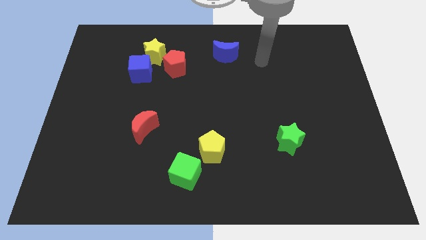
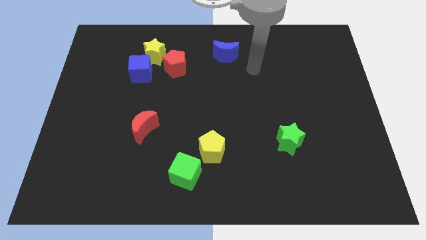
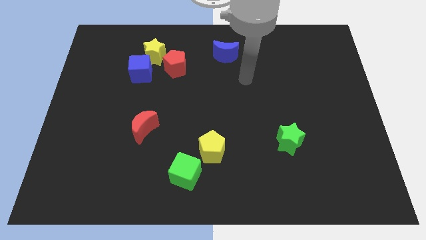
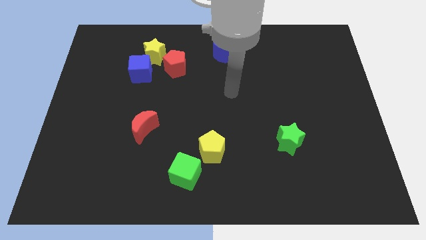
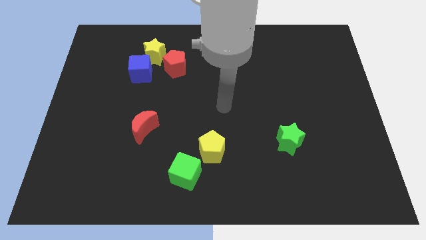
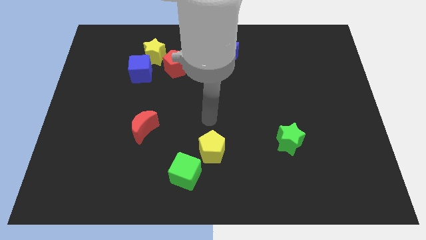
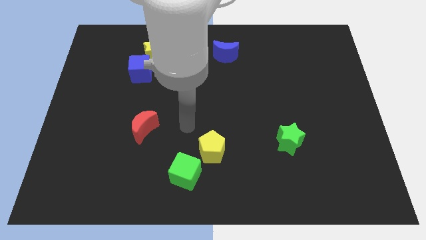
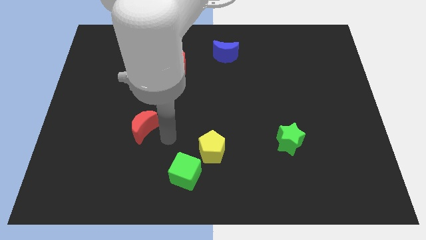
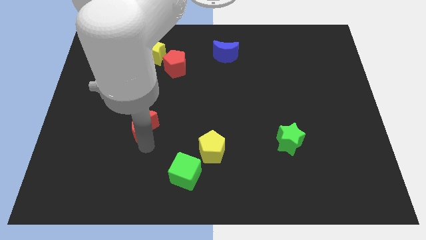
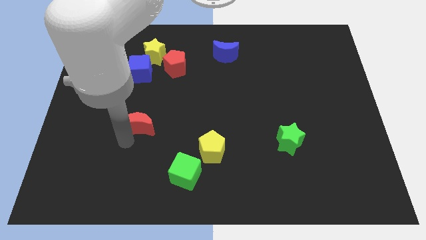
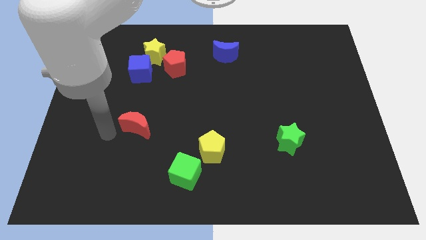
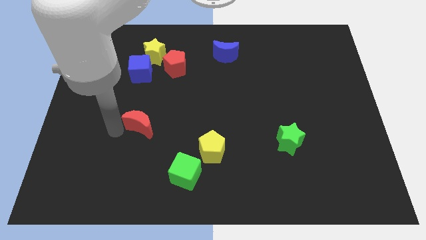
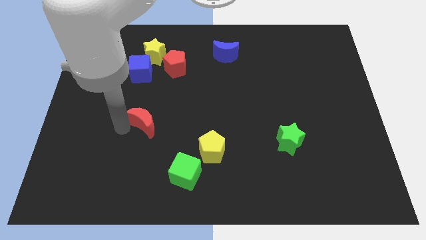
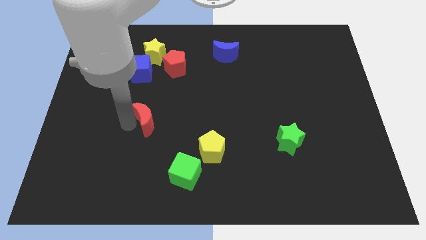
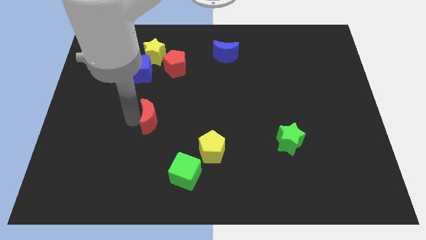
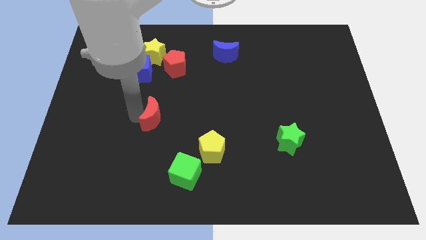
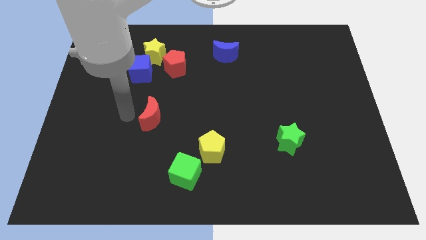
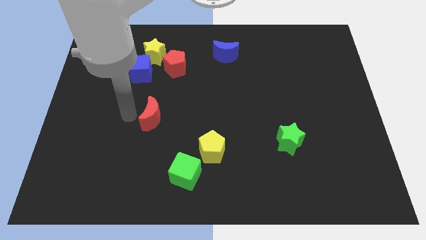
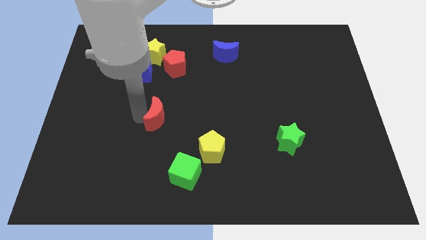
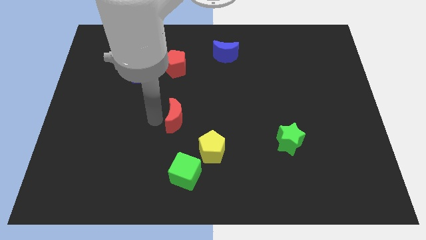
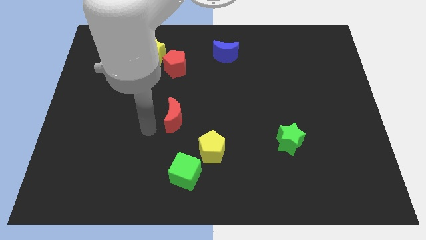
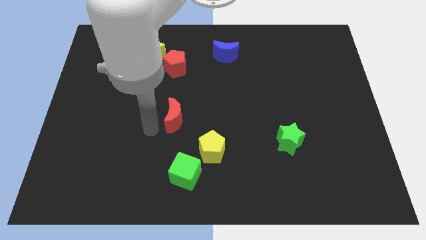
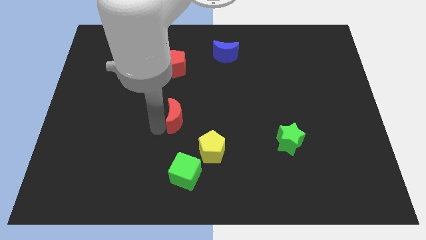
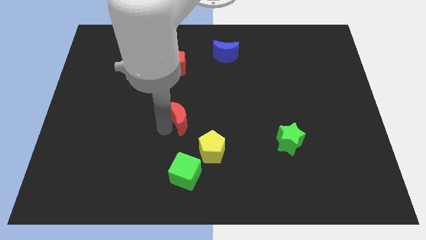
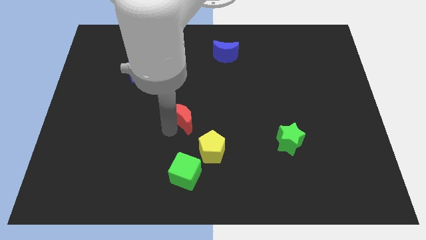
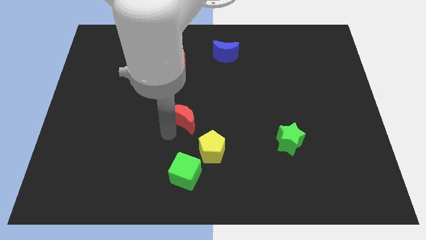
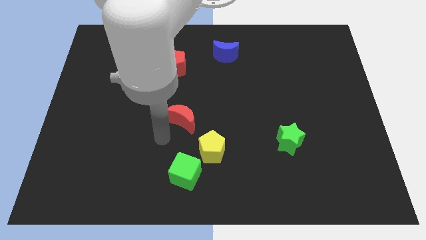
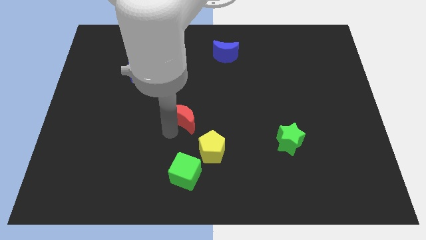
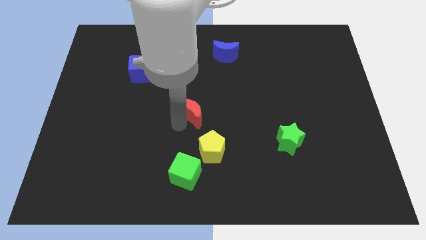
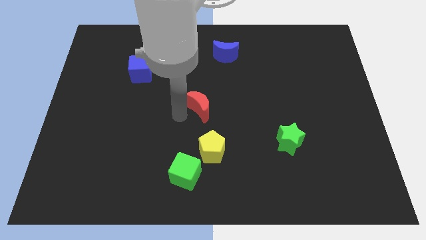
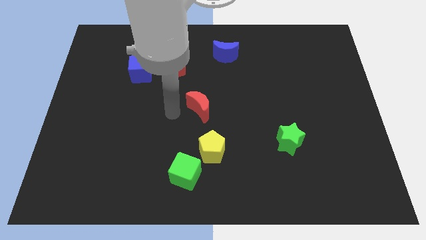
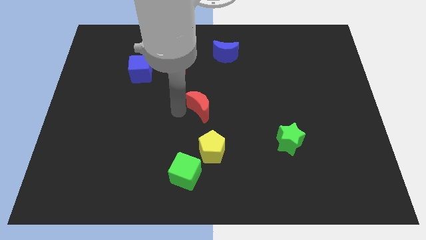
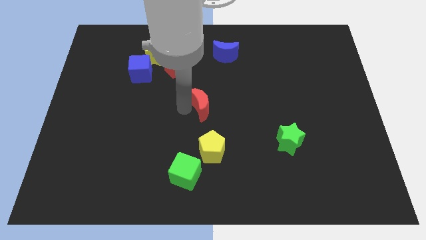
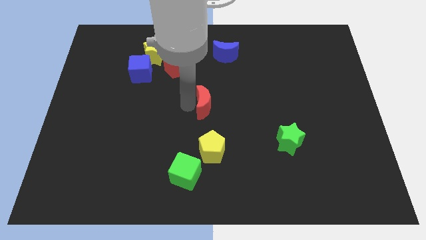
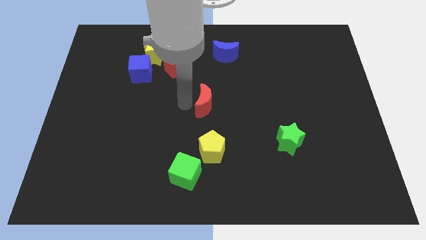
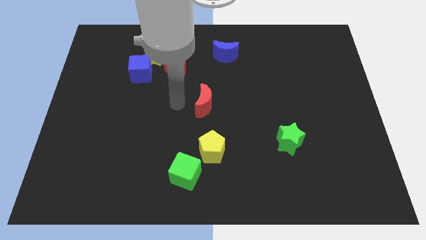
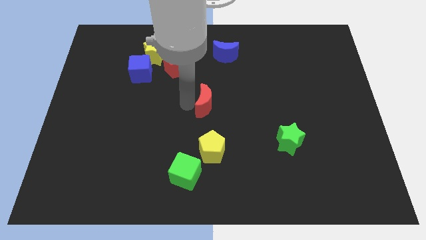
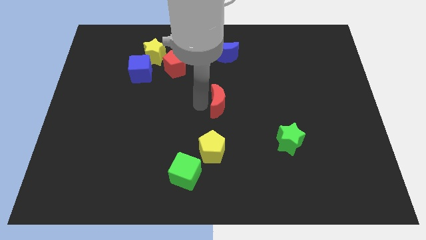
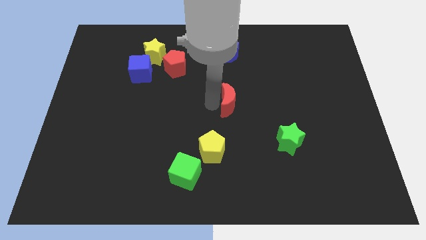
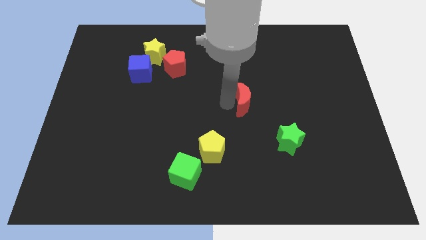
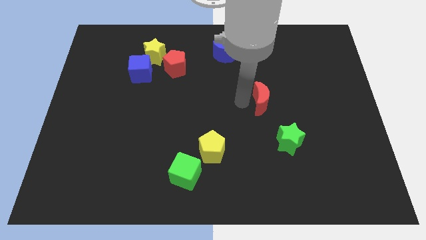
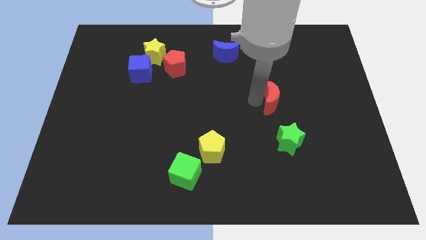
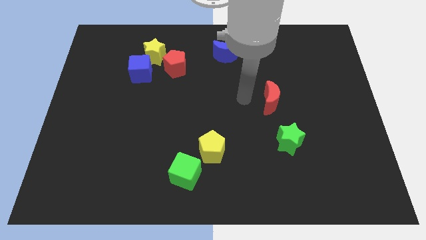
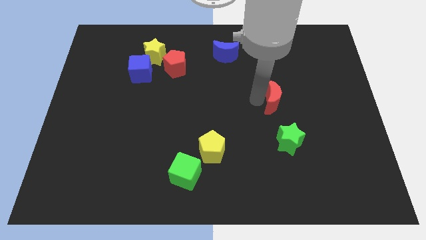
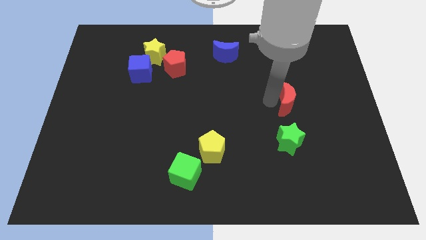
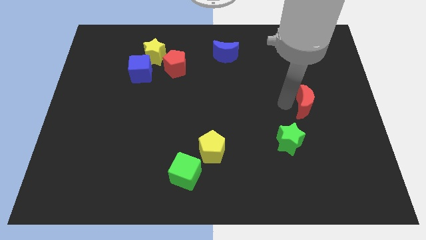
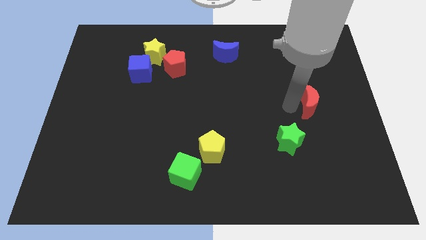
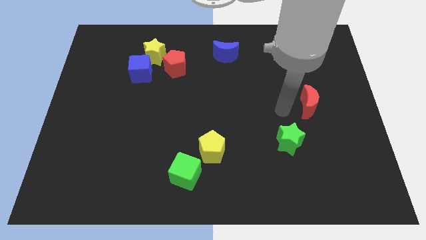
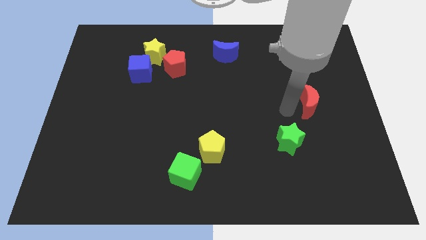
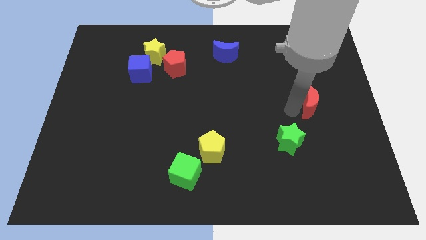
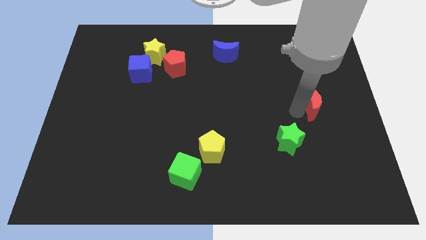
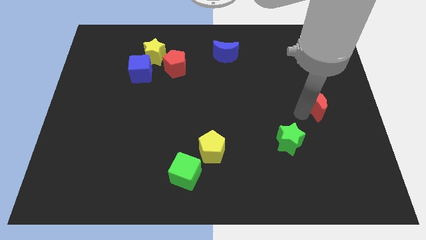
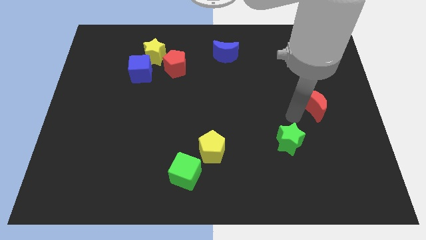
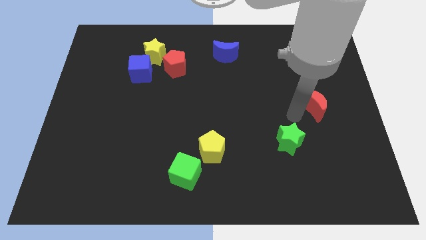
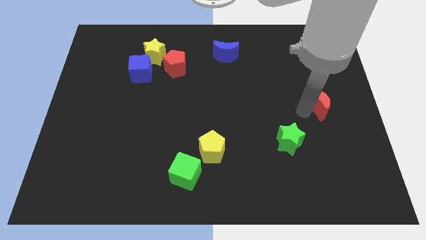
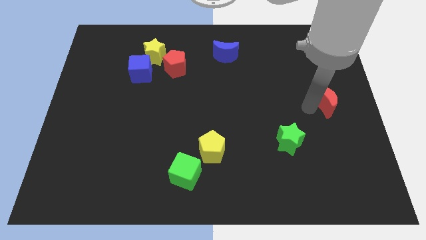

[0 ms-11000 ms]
push the red moon to the center right

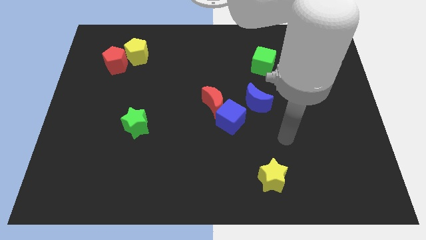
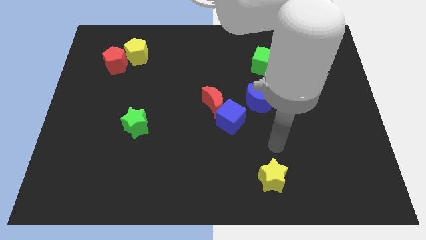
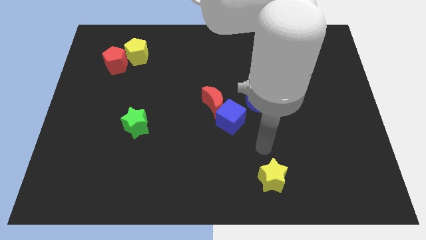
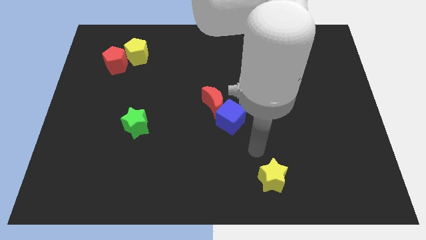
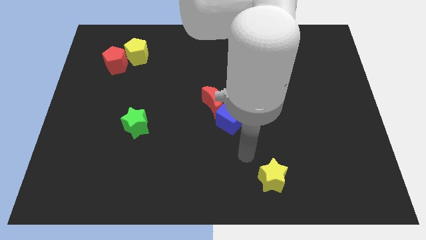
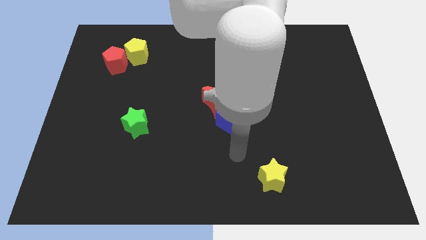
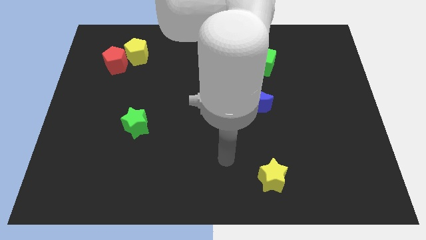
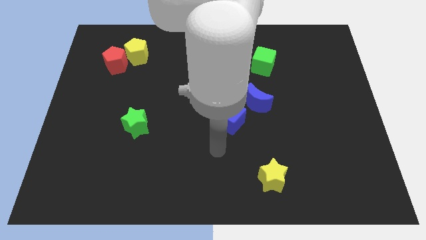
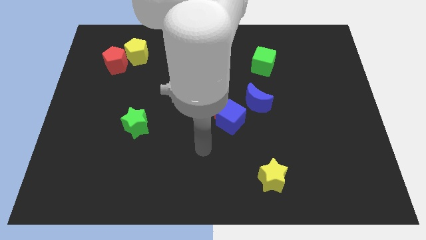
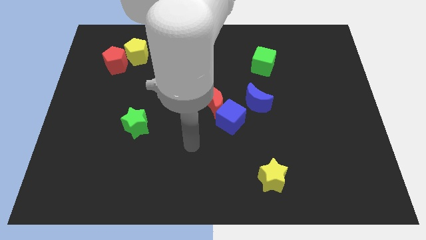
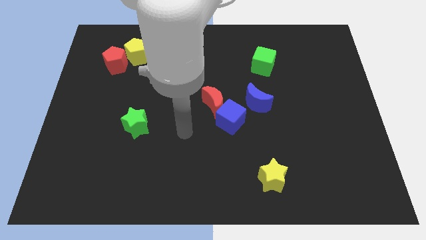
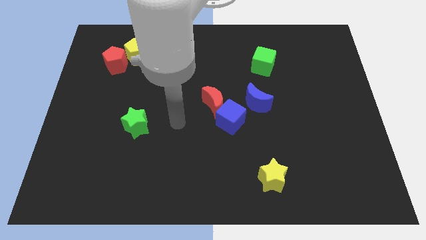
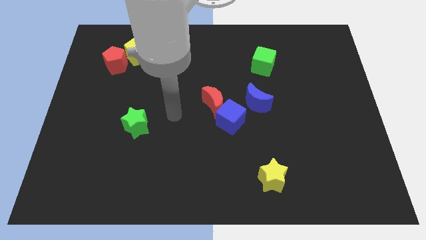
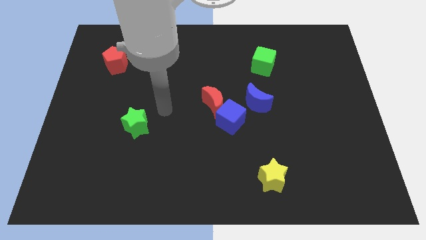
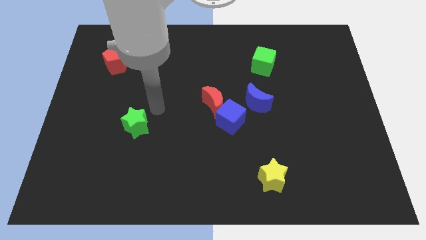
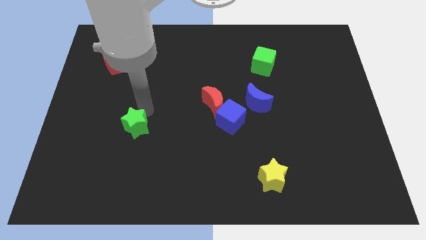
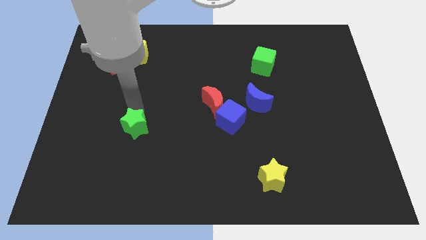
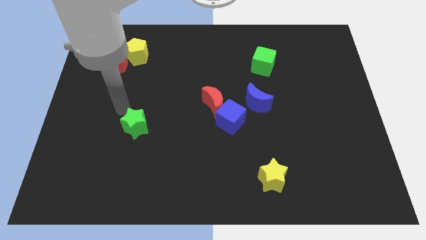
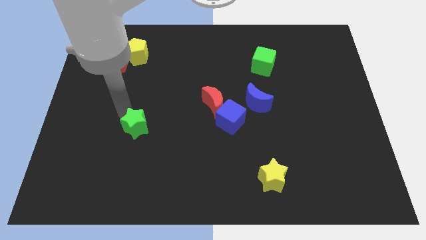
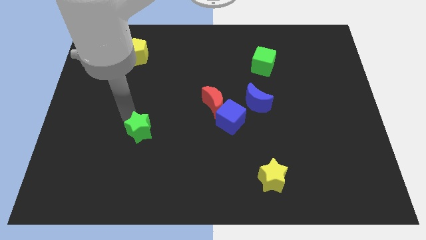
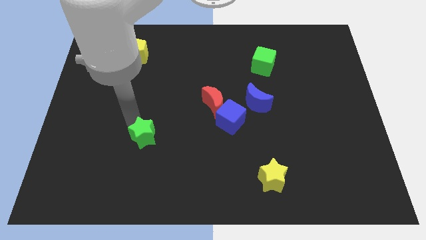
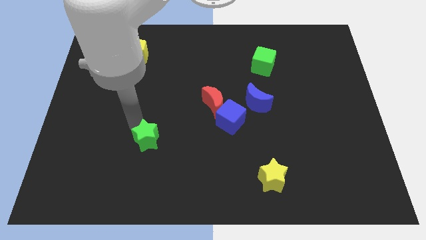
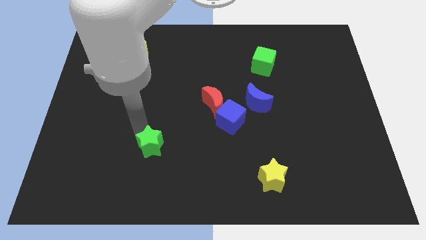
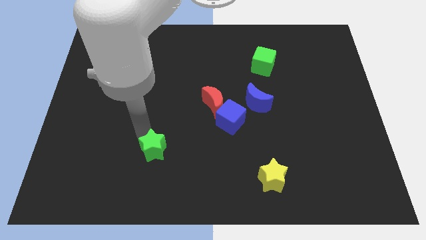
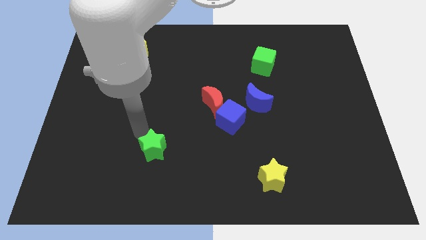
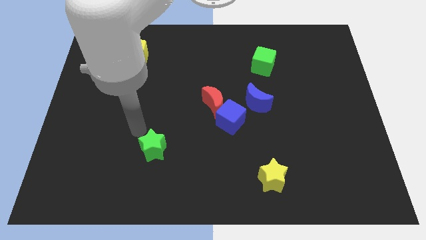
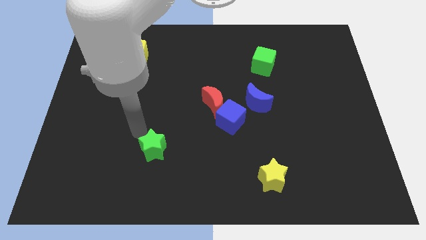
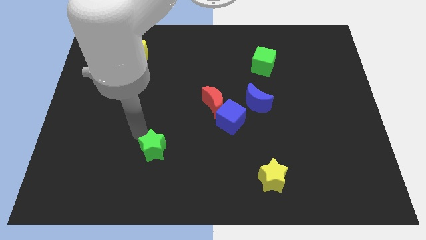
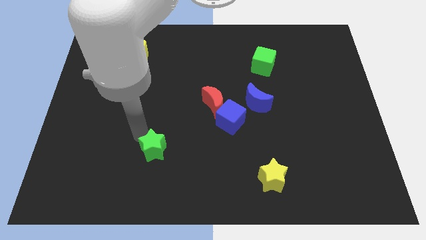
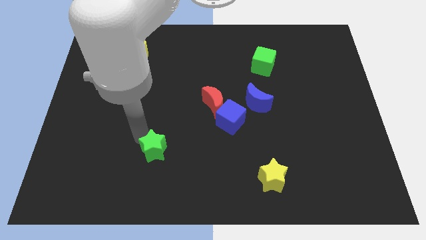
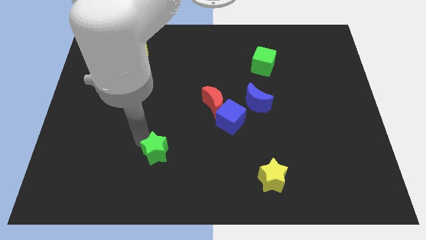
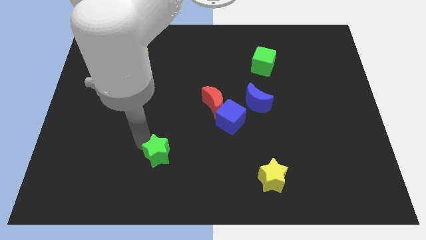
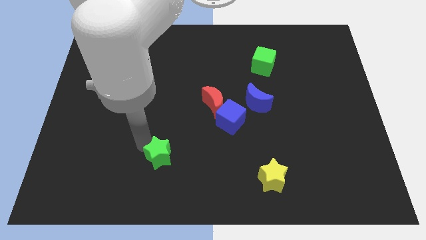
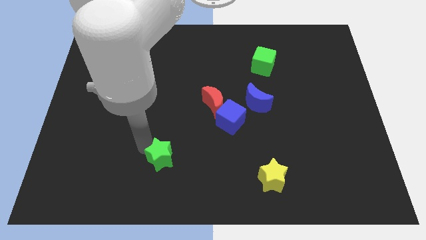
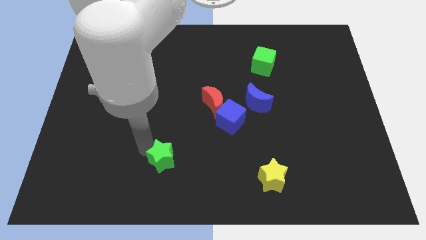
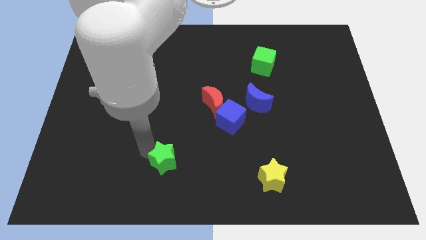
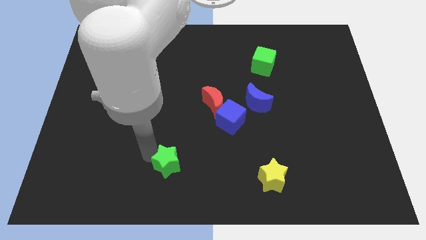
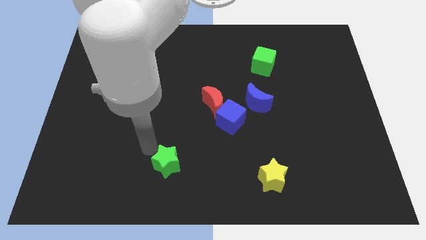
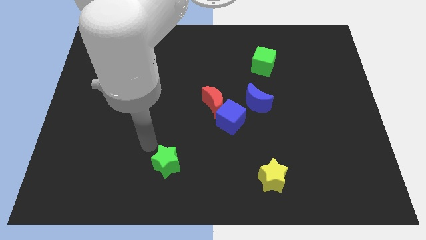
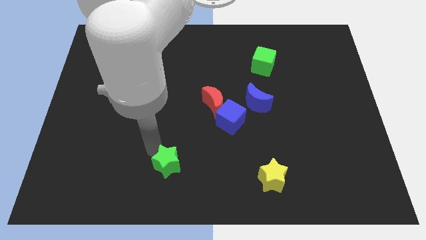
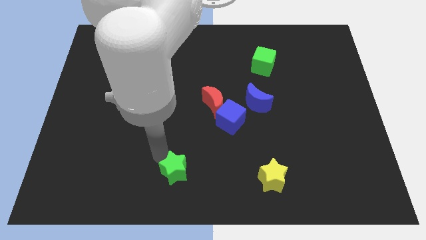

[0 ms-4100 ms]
slide the green star to the bottom side
